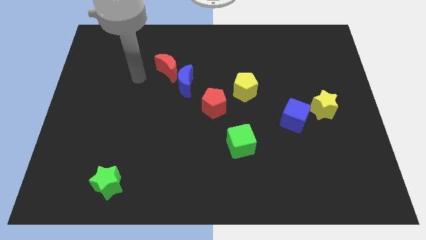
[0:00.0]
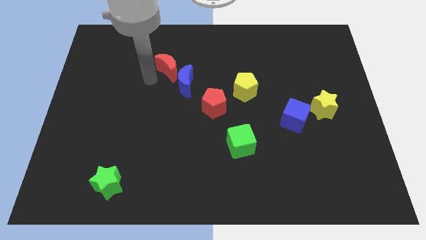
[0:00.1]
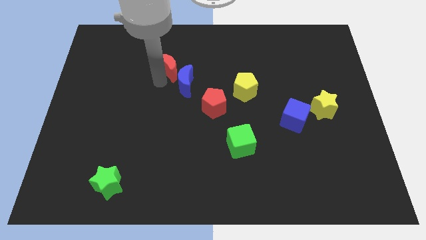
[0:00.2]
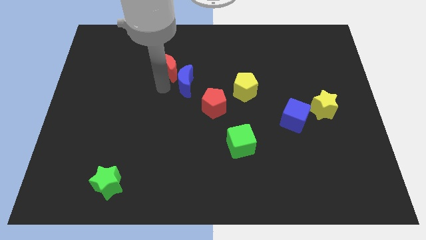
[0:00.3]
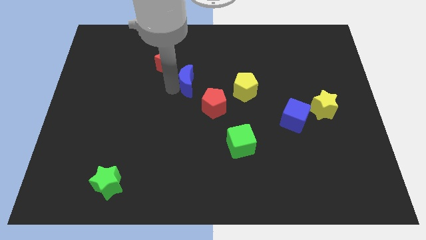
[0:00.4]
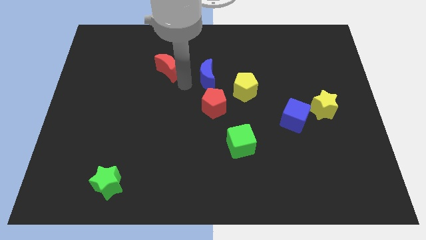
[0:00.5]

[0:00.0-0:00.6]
move the red moon away from the blue moon

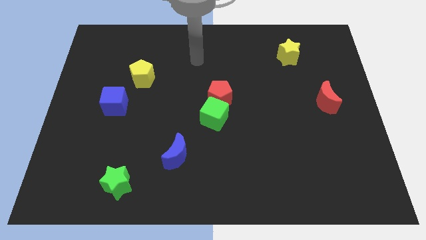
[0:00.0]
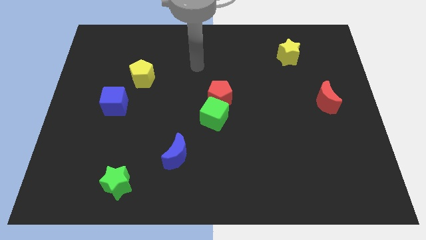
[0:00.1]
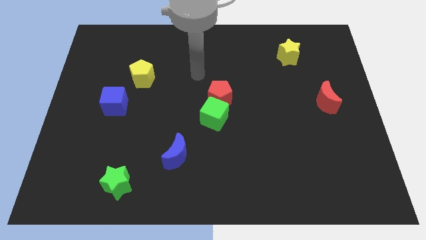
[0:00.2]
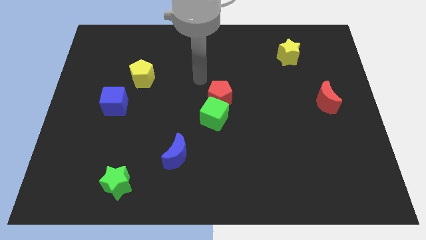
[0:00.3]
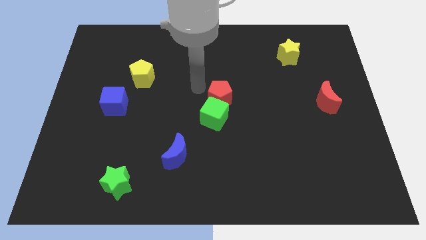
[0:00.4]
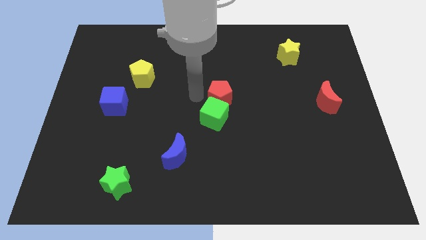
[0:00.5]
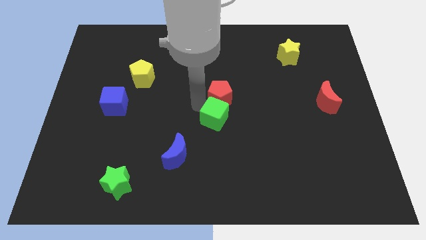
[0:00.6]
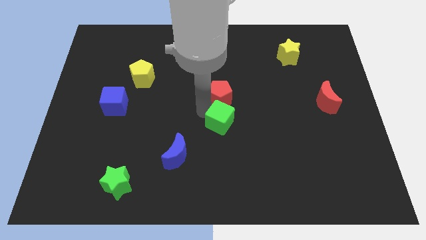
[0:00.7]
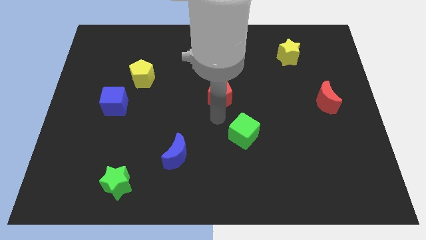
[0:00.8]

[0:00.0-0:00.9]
move the red pentagon away from the green cube

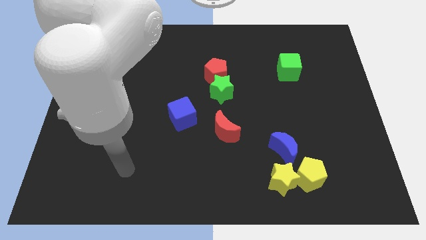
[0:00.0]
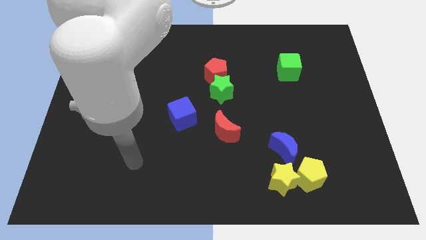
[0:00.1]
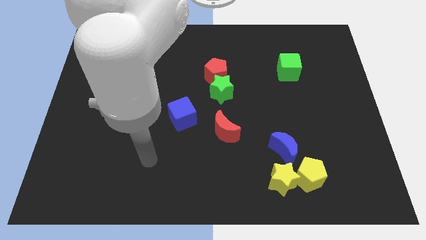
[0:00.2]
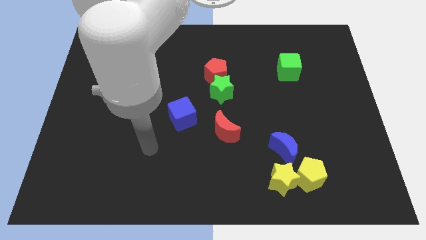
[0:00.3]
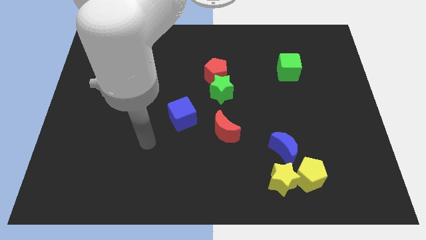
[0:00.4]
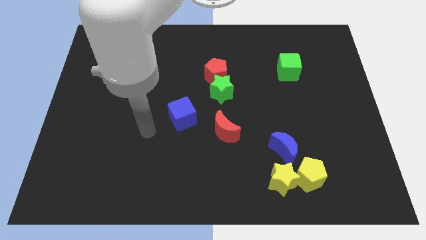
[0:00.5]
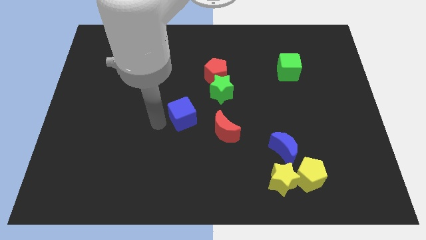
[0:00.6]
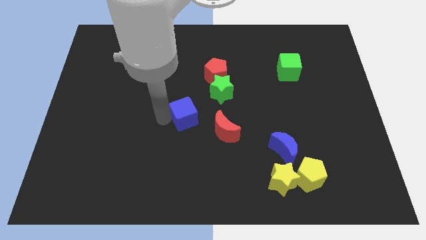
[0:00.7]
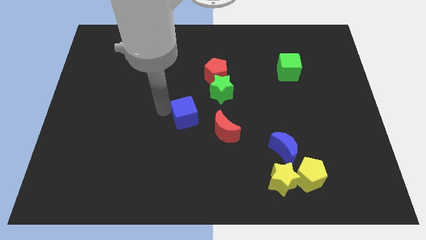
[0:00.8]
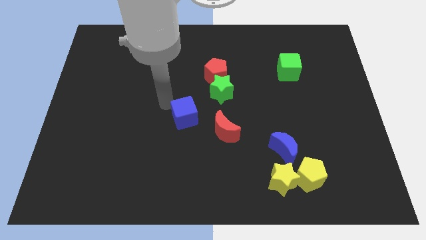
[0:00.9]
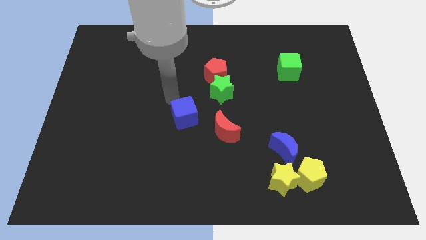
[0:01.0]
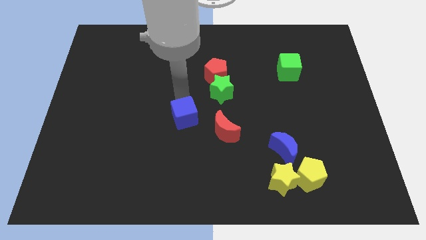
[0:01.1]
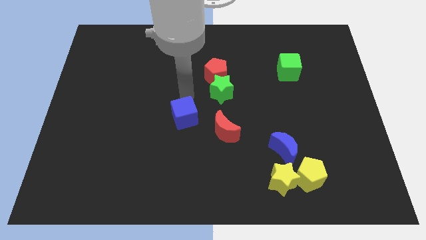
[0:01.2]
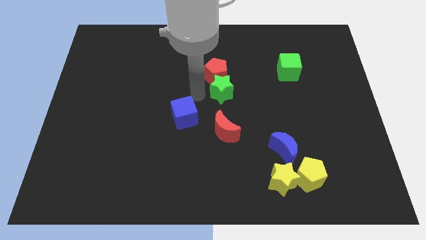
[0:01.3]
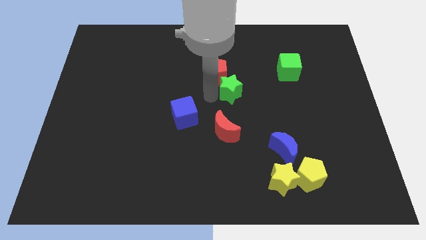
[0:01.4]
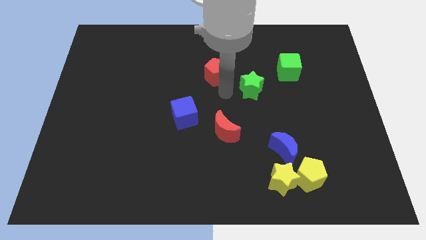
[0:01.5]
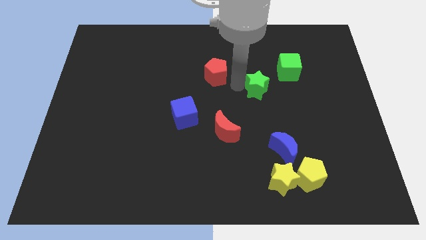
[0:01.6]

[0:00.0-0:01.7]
pull the red pentagon apart from the green star

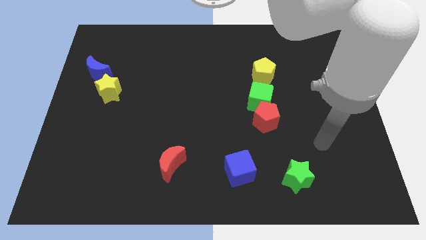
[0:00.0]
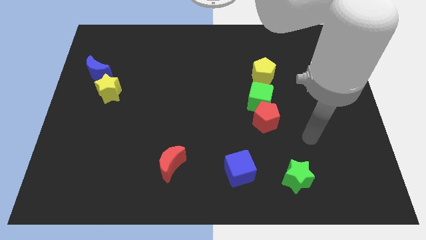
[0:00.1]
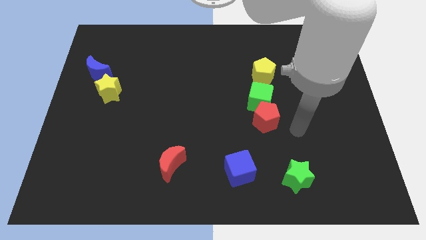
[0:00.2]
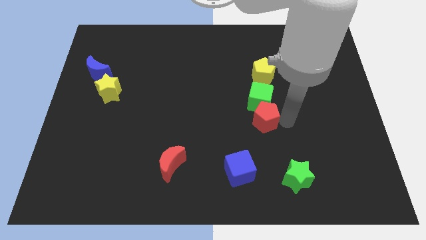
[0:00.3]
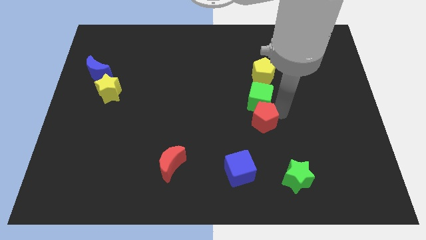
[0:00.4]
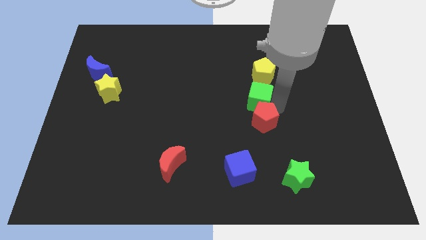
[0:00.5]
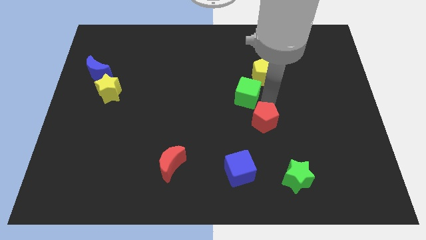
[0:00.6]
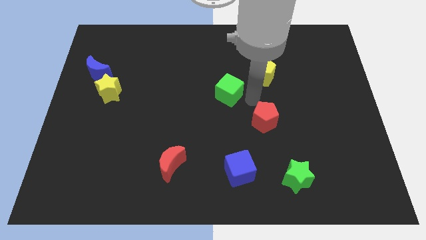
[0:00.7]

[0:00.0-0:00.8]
separate the red pentagon from the green cube

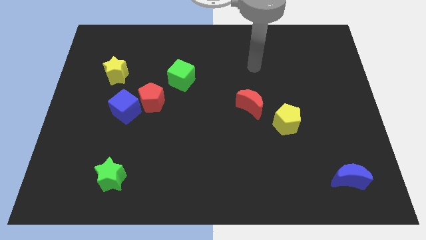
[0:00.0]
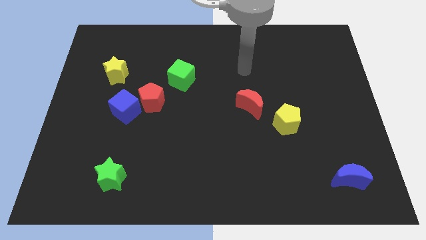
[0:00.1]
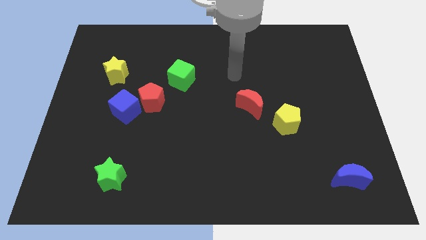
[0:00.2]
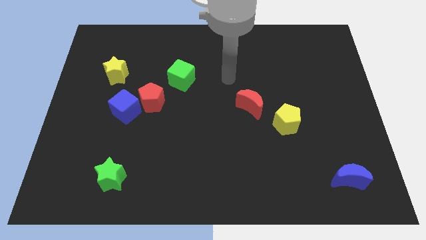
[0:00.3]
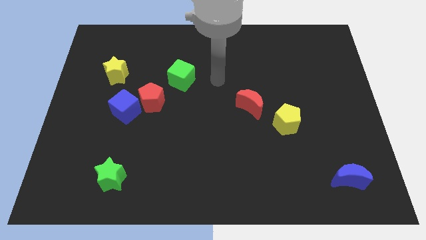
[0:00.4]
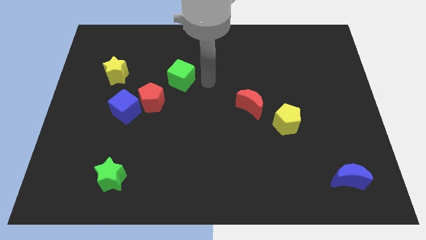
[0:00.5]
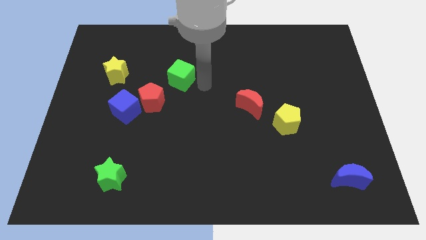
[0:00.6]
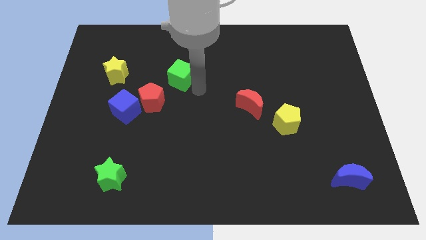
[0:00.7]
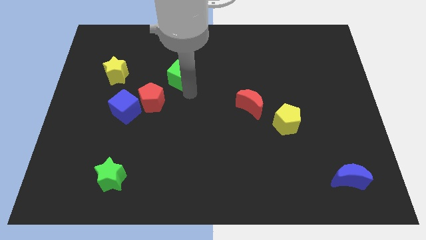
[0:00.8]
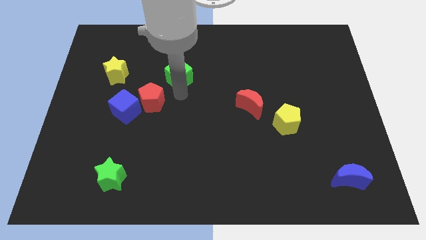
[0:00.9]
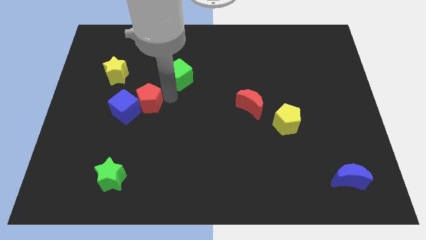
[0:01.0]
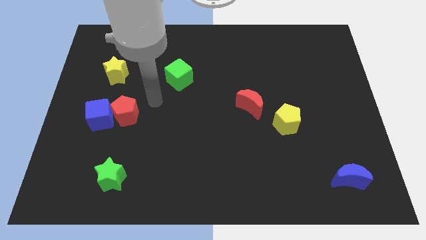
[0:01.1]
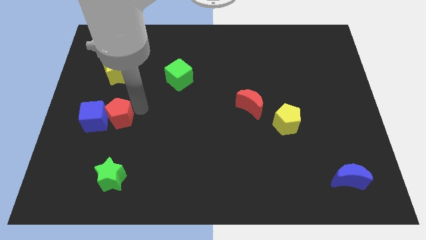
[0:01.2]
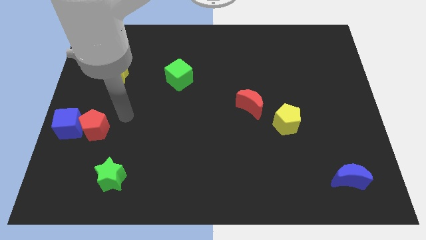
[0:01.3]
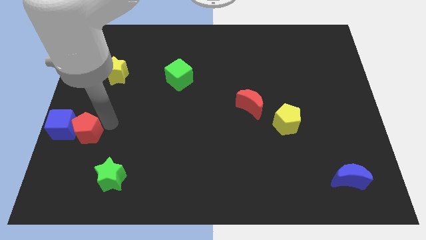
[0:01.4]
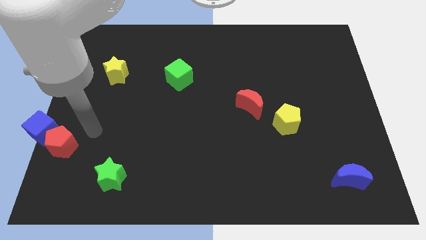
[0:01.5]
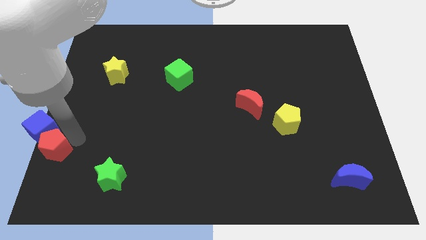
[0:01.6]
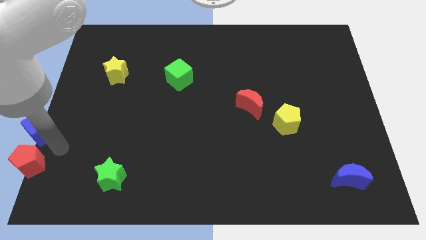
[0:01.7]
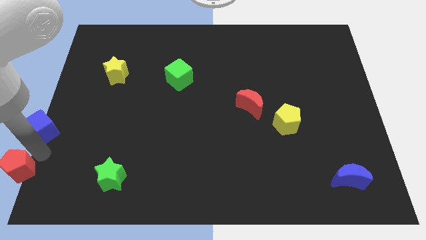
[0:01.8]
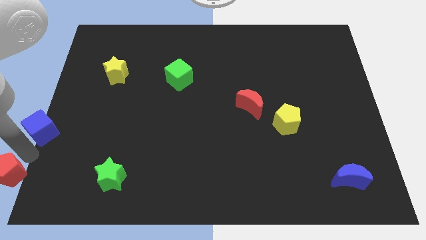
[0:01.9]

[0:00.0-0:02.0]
separate the blue cube from the red pentagon

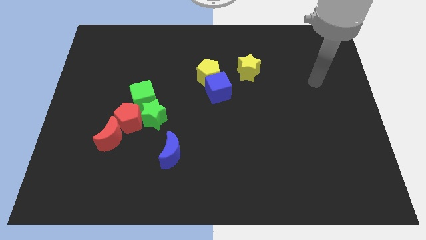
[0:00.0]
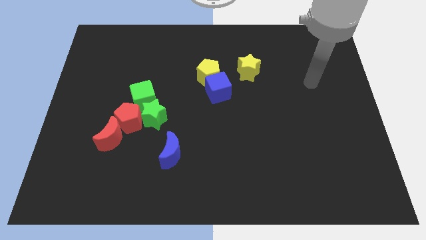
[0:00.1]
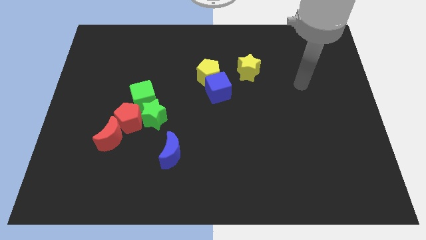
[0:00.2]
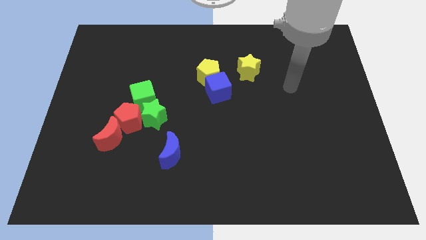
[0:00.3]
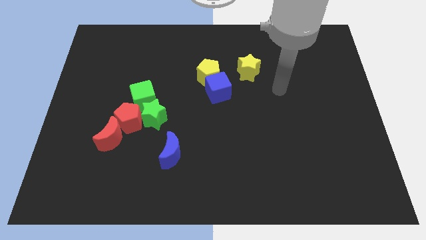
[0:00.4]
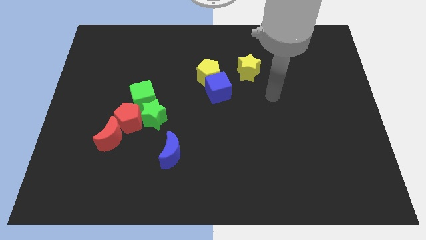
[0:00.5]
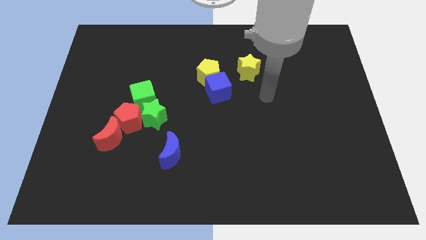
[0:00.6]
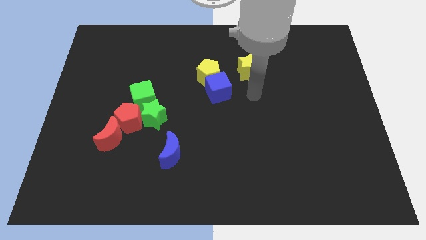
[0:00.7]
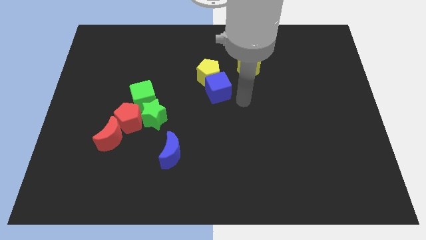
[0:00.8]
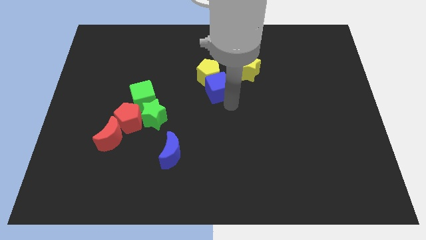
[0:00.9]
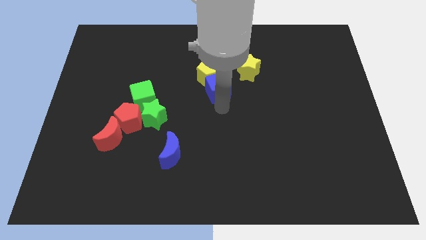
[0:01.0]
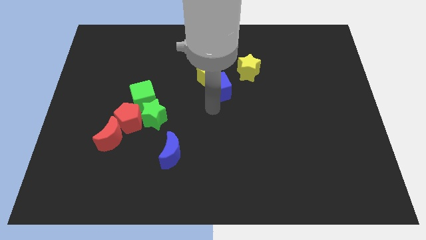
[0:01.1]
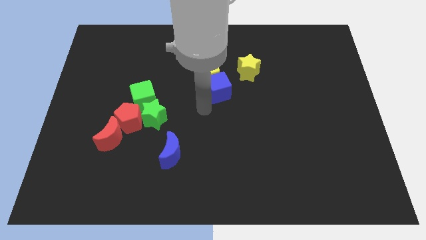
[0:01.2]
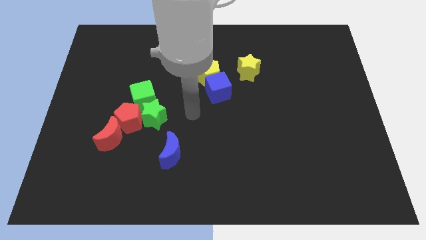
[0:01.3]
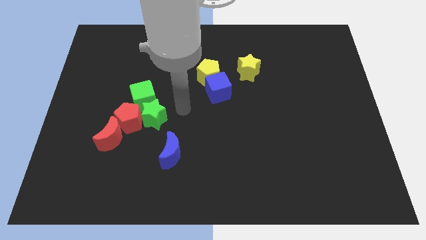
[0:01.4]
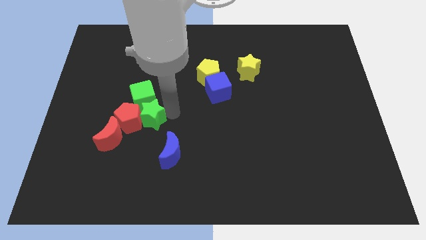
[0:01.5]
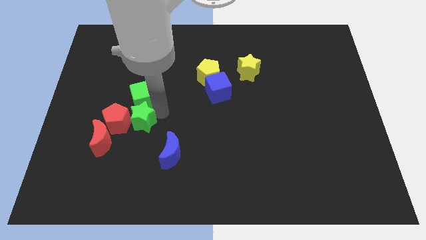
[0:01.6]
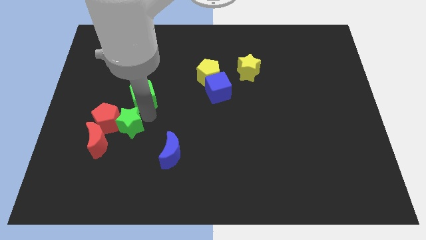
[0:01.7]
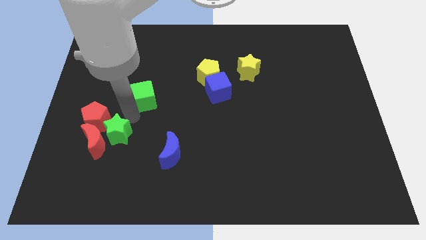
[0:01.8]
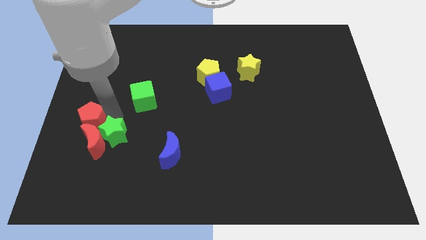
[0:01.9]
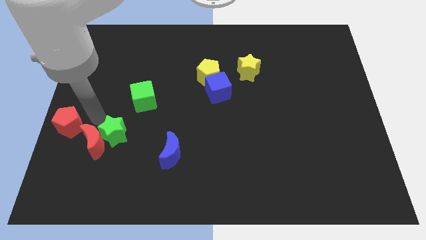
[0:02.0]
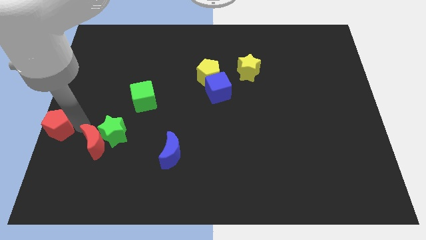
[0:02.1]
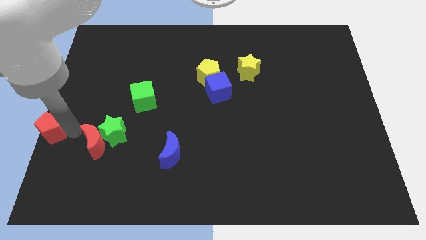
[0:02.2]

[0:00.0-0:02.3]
pull the red moon apart from the red pentagon

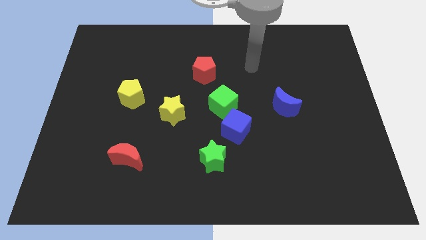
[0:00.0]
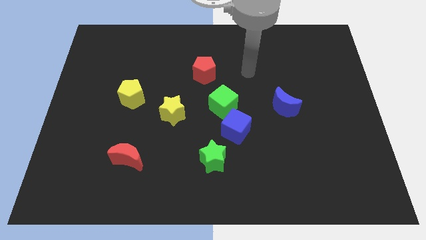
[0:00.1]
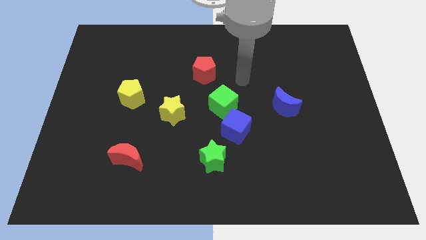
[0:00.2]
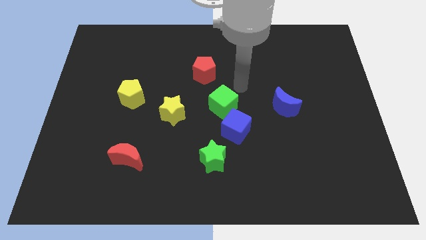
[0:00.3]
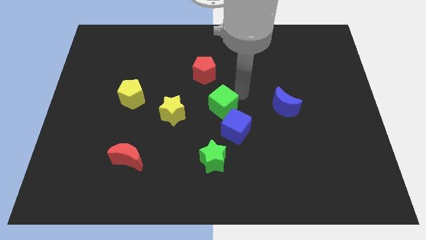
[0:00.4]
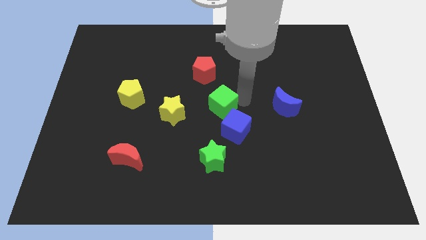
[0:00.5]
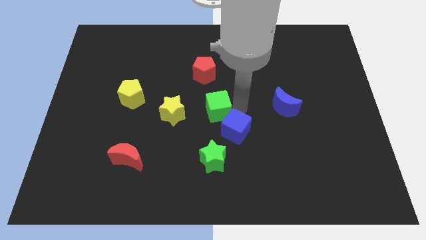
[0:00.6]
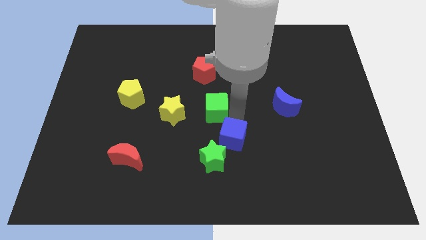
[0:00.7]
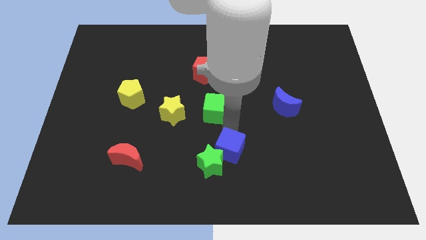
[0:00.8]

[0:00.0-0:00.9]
separate the green cube from the blue cube
